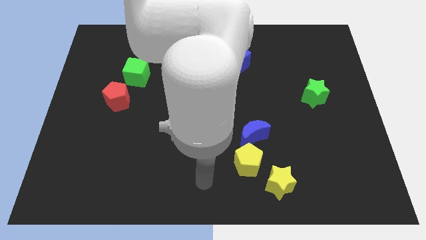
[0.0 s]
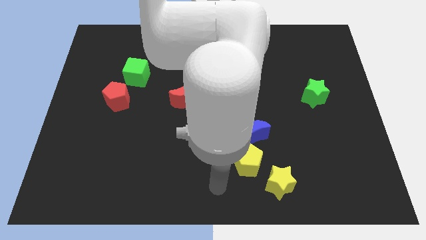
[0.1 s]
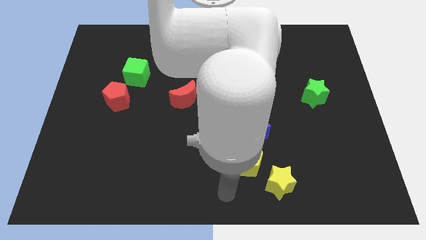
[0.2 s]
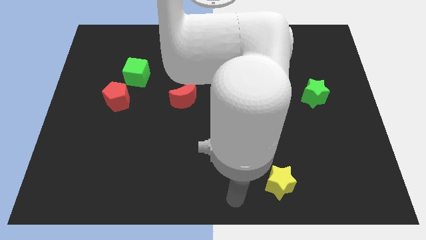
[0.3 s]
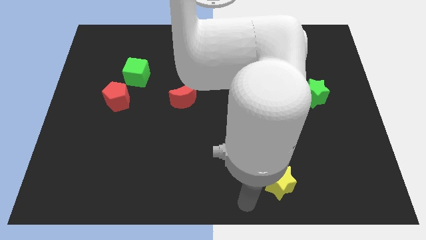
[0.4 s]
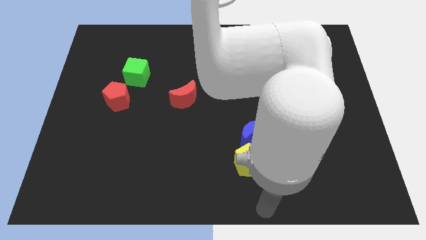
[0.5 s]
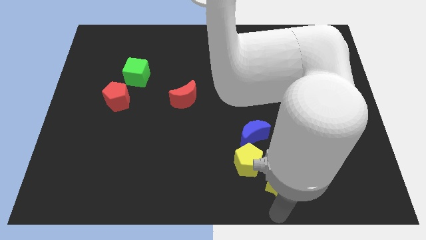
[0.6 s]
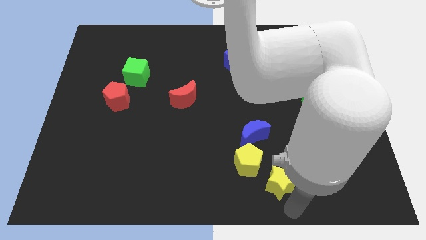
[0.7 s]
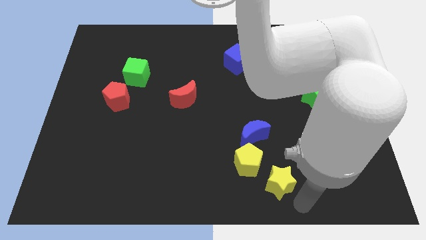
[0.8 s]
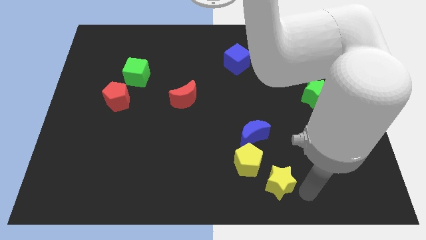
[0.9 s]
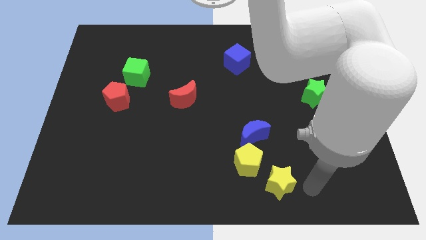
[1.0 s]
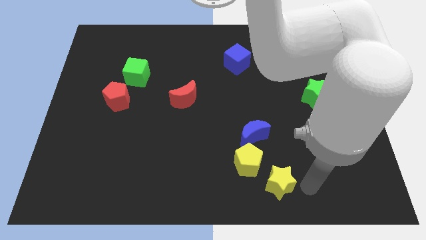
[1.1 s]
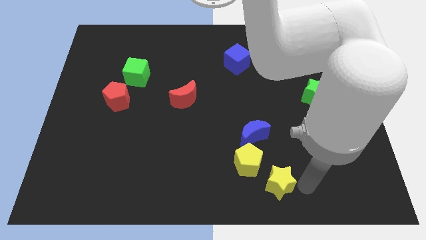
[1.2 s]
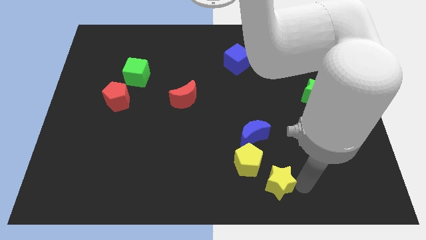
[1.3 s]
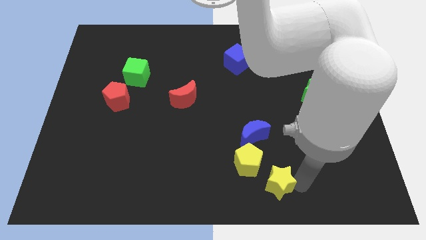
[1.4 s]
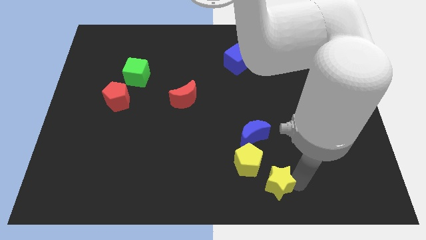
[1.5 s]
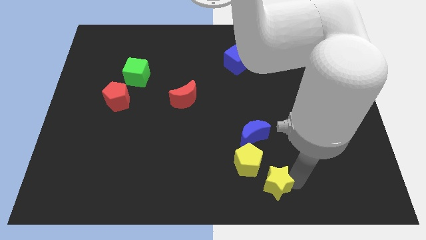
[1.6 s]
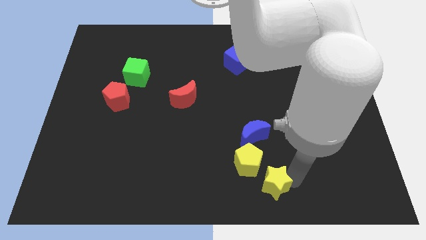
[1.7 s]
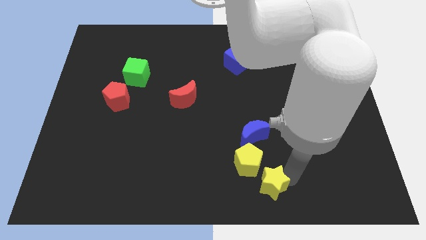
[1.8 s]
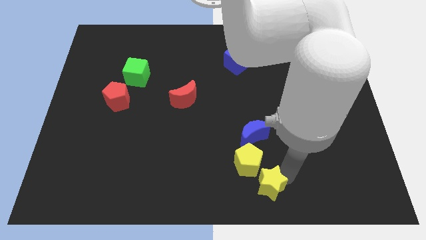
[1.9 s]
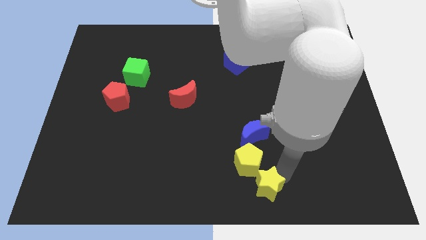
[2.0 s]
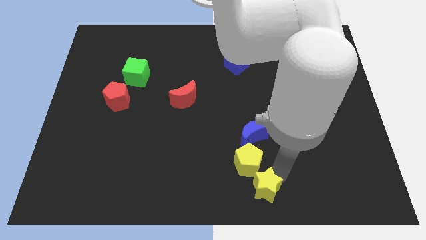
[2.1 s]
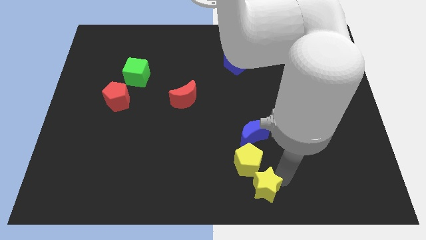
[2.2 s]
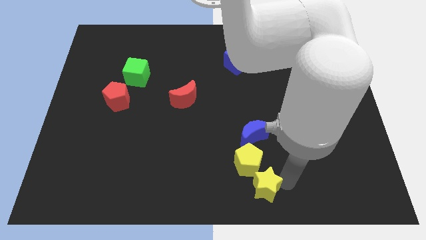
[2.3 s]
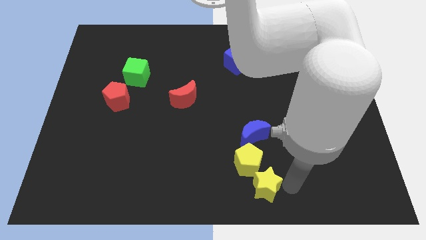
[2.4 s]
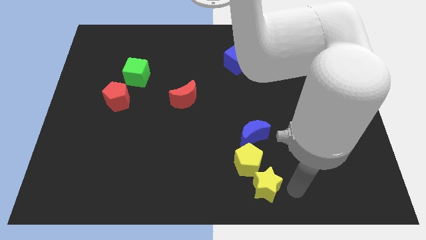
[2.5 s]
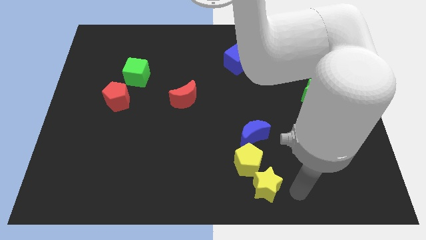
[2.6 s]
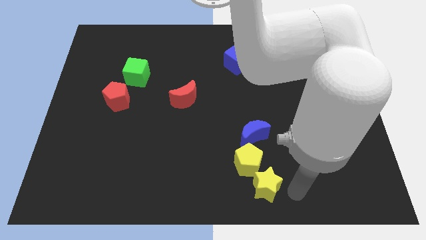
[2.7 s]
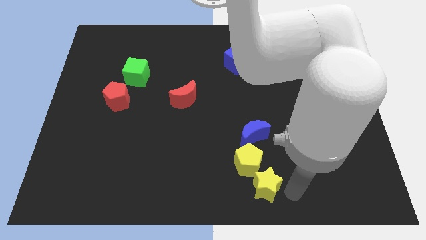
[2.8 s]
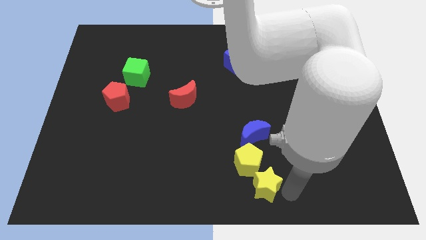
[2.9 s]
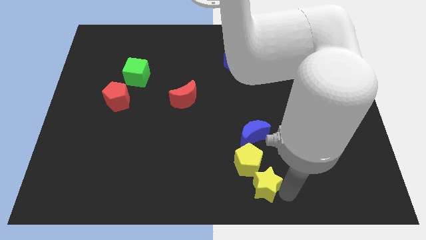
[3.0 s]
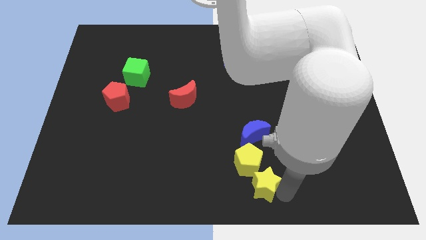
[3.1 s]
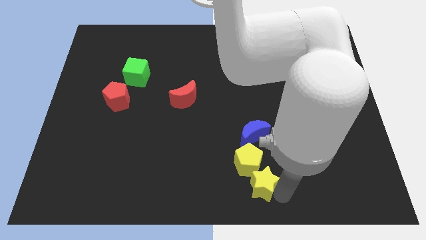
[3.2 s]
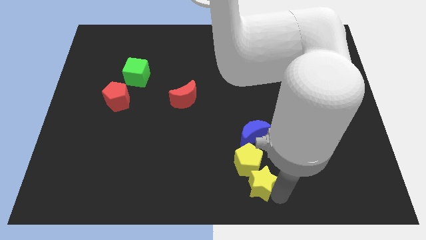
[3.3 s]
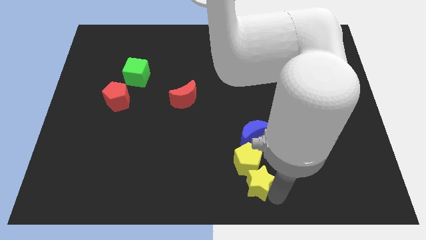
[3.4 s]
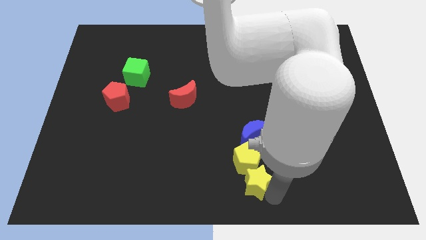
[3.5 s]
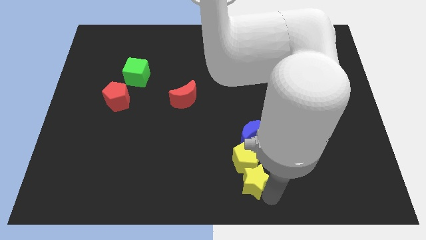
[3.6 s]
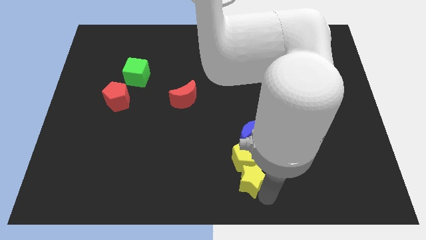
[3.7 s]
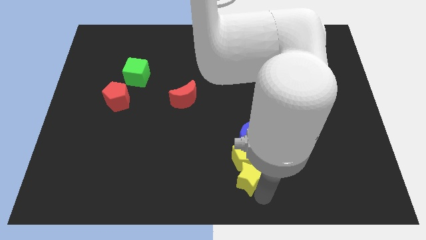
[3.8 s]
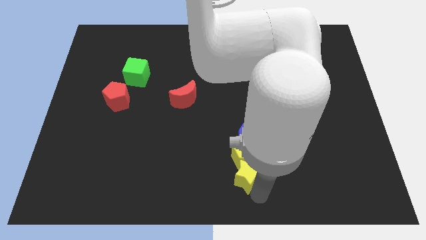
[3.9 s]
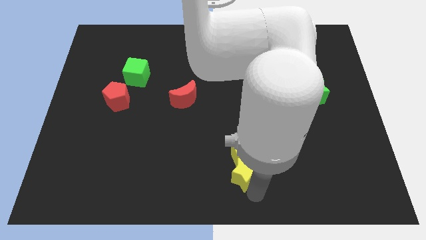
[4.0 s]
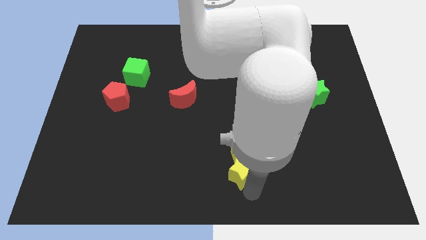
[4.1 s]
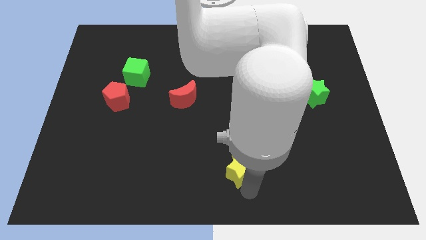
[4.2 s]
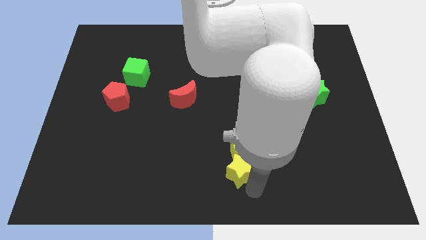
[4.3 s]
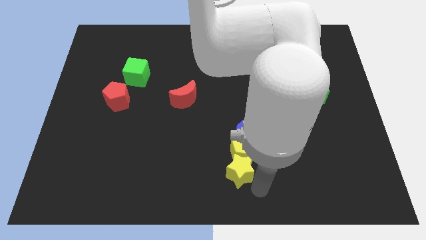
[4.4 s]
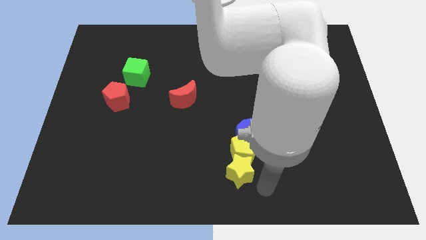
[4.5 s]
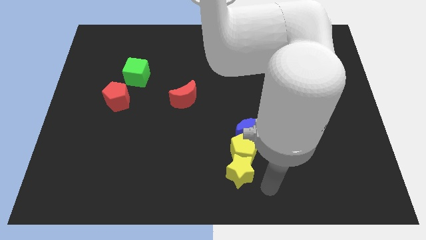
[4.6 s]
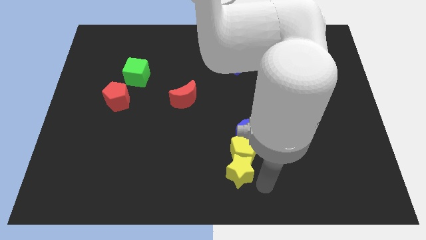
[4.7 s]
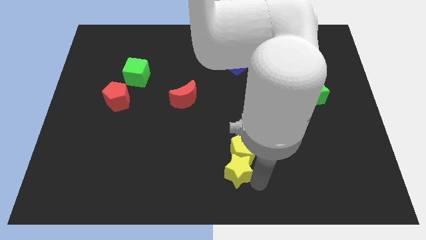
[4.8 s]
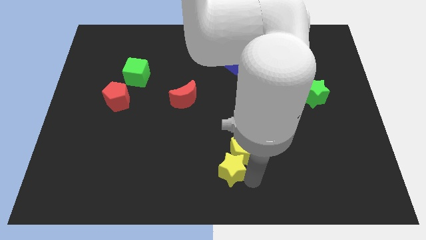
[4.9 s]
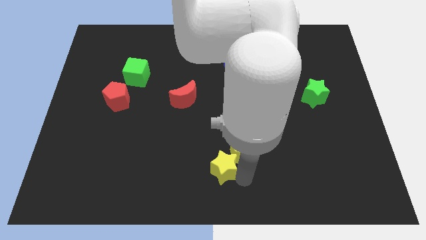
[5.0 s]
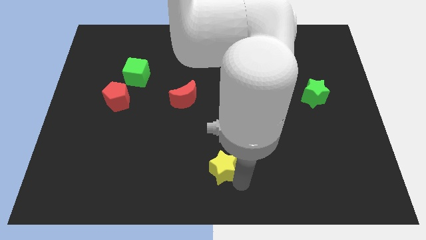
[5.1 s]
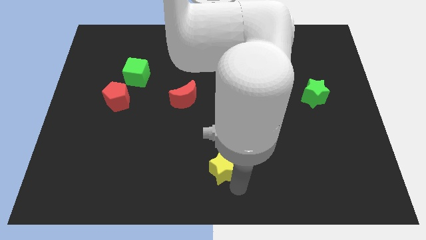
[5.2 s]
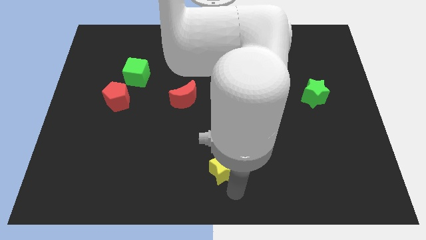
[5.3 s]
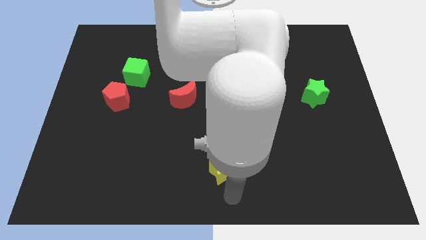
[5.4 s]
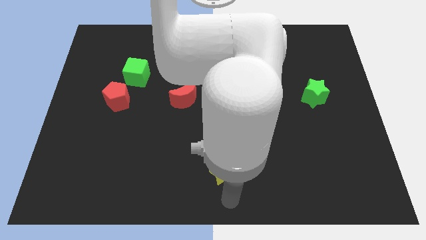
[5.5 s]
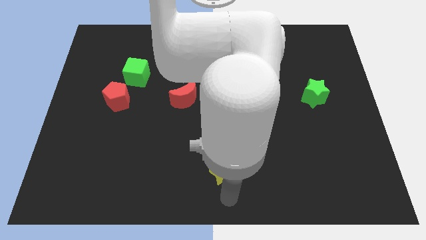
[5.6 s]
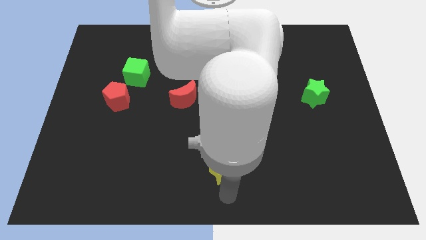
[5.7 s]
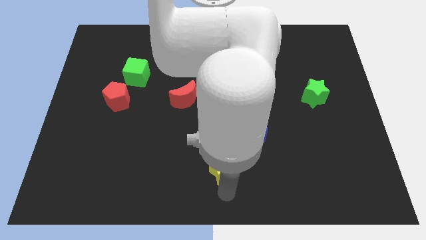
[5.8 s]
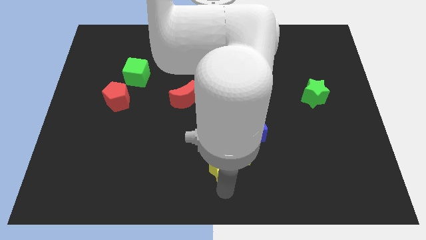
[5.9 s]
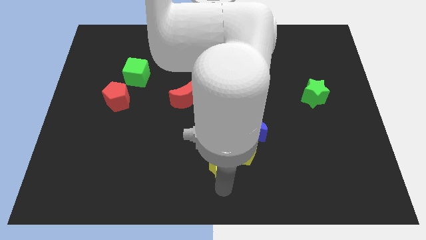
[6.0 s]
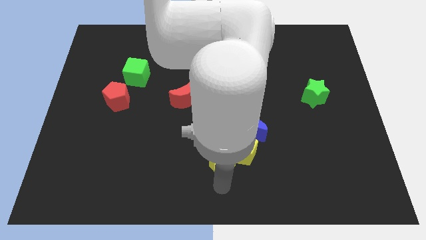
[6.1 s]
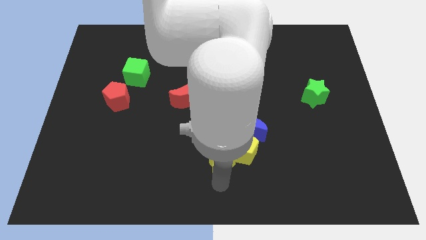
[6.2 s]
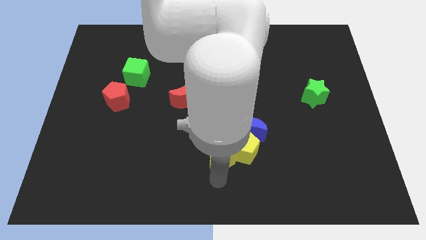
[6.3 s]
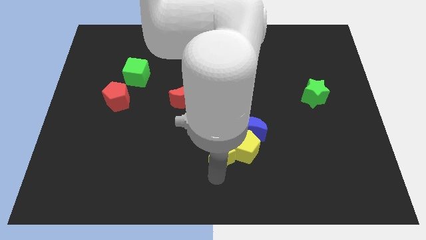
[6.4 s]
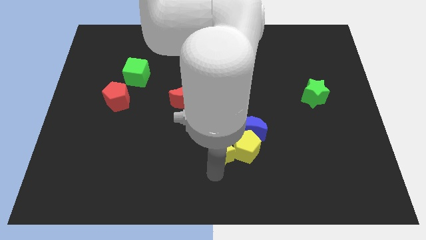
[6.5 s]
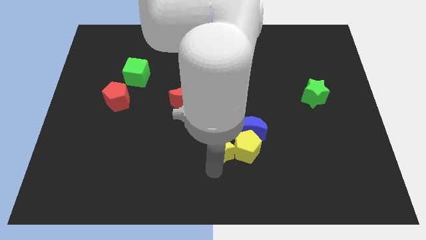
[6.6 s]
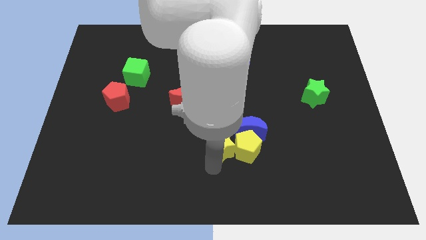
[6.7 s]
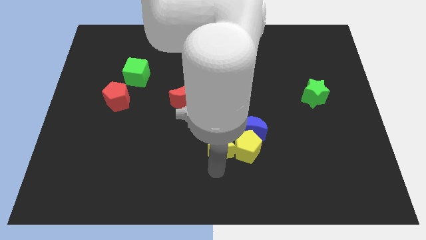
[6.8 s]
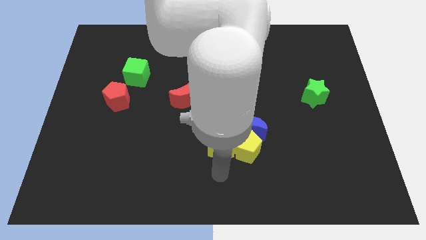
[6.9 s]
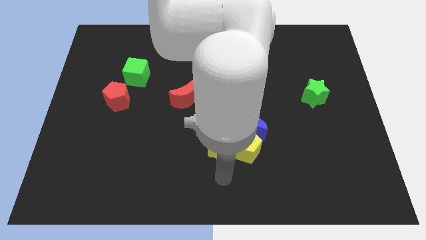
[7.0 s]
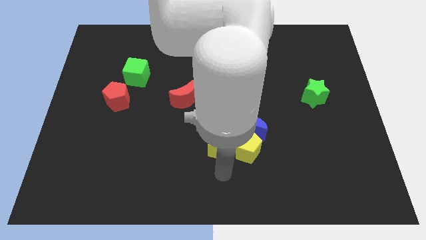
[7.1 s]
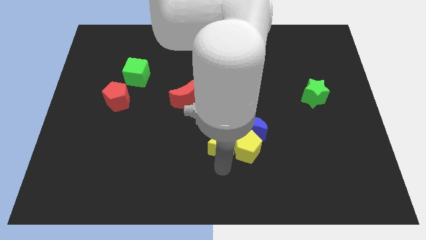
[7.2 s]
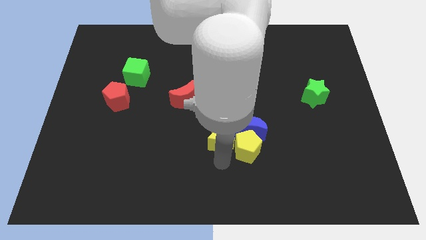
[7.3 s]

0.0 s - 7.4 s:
slide the yellow star to the middle of the board
